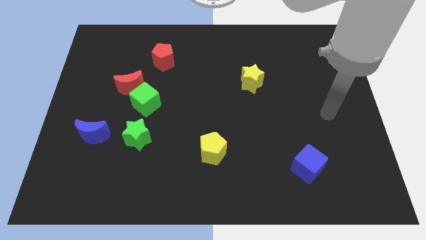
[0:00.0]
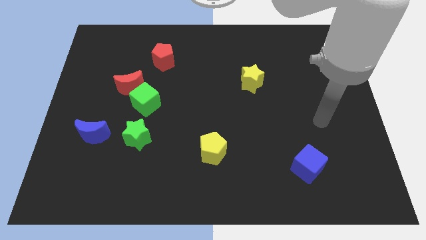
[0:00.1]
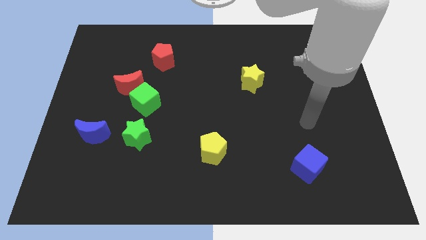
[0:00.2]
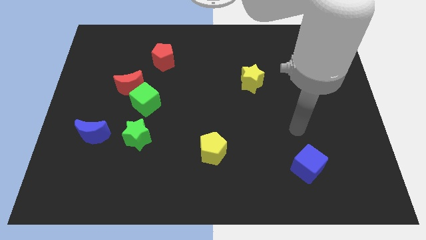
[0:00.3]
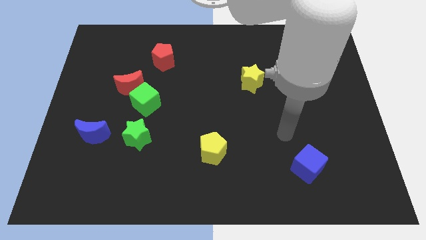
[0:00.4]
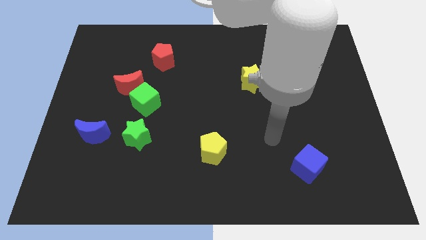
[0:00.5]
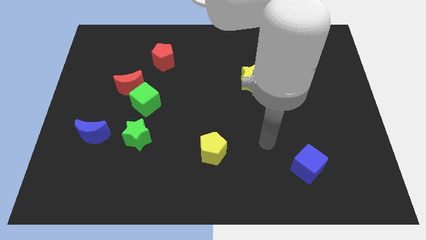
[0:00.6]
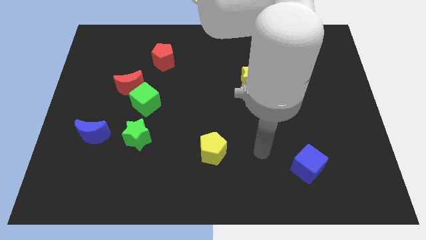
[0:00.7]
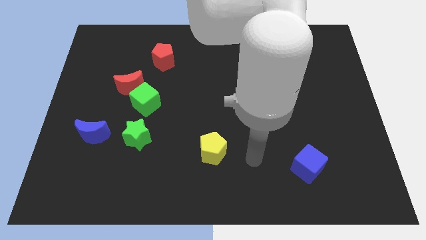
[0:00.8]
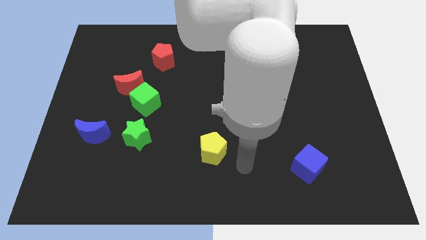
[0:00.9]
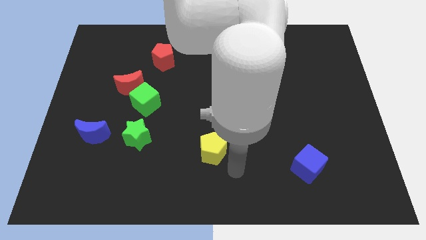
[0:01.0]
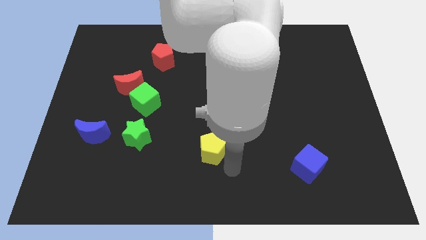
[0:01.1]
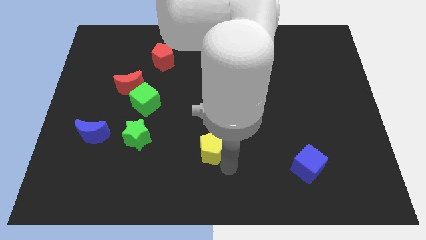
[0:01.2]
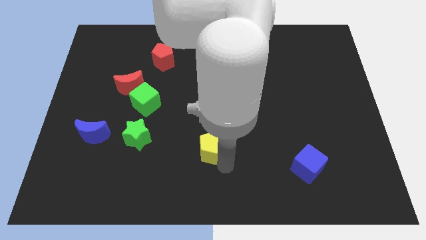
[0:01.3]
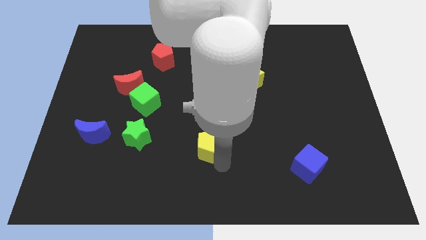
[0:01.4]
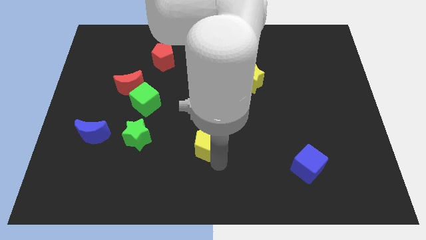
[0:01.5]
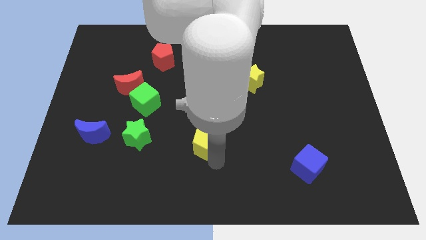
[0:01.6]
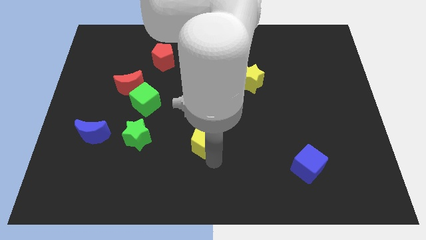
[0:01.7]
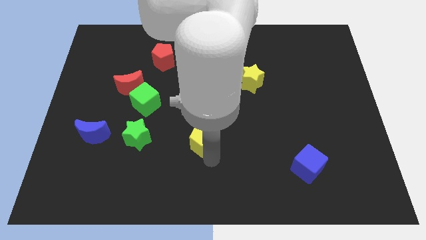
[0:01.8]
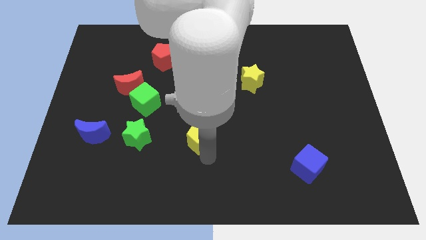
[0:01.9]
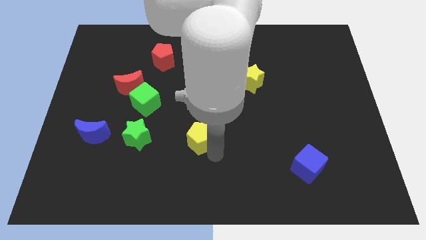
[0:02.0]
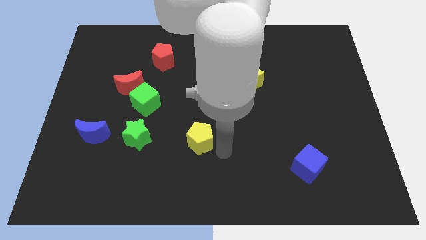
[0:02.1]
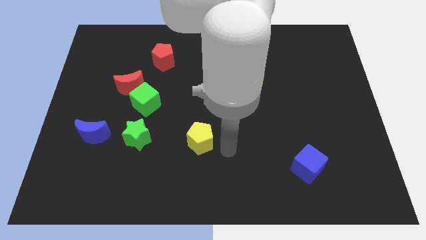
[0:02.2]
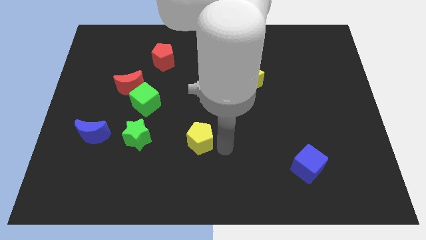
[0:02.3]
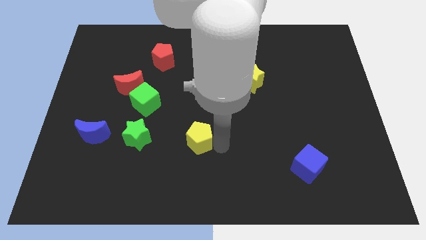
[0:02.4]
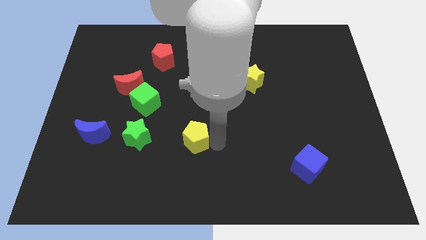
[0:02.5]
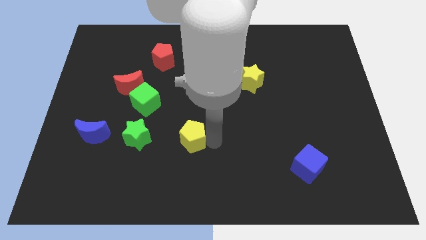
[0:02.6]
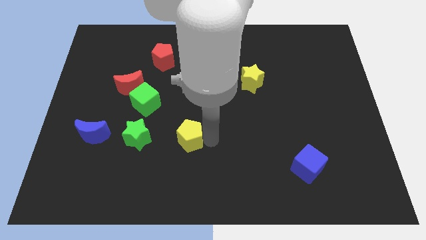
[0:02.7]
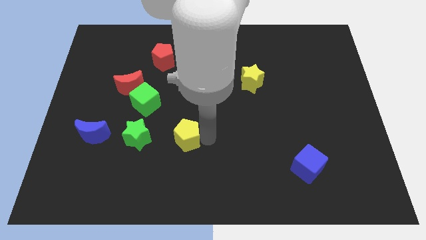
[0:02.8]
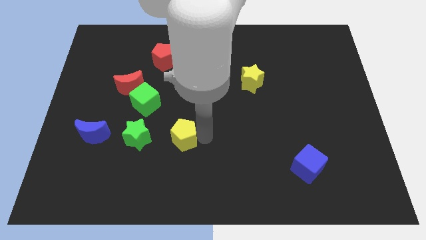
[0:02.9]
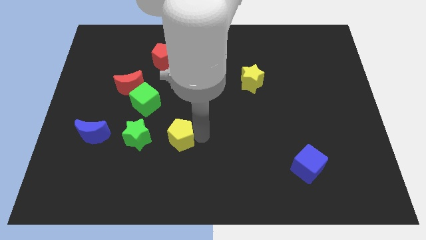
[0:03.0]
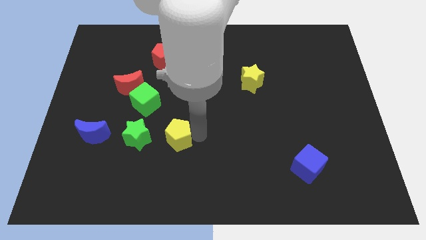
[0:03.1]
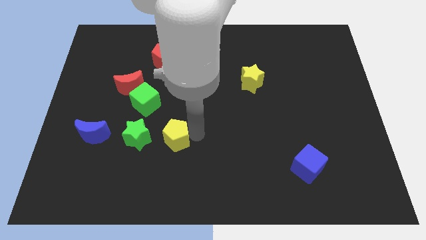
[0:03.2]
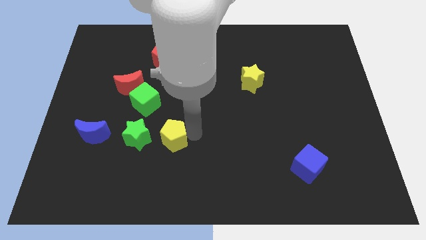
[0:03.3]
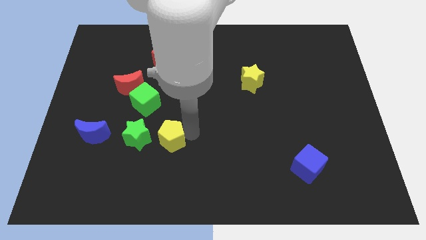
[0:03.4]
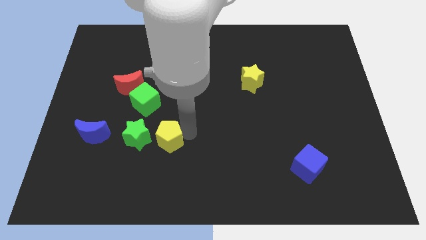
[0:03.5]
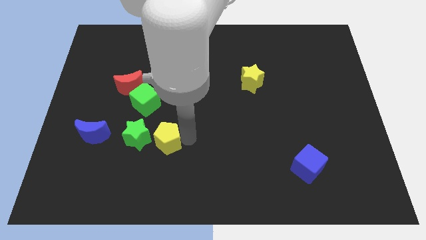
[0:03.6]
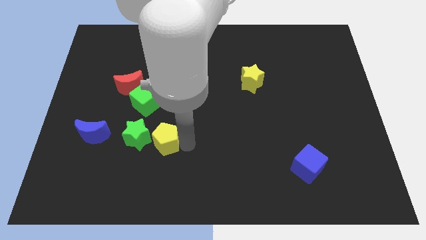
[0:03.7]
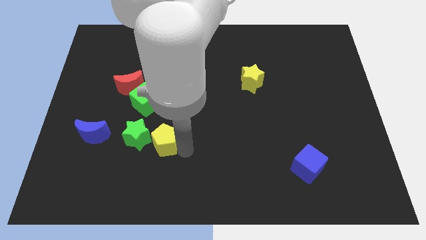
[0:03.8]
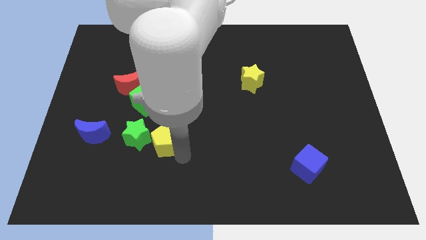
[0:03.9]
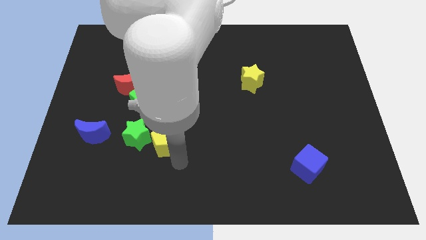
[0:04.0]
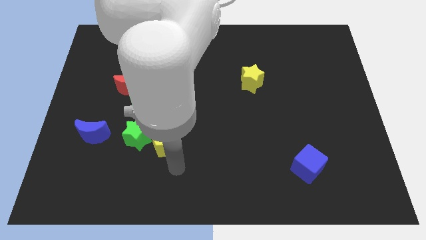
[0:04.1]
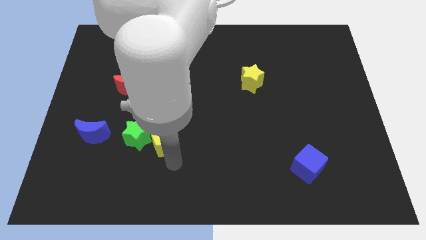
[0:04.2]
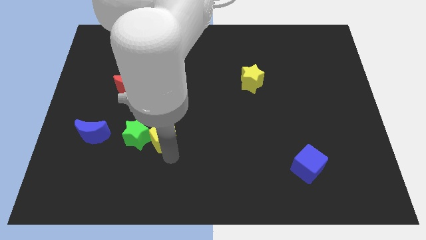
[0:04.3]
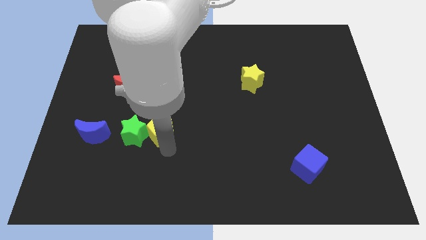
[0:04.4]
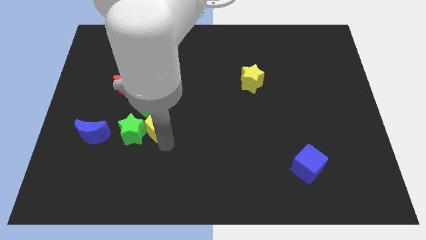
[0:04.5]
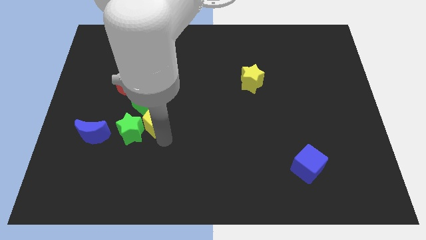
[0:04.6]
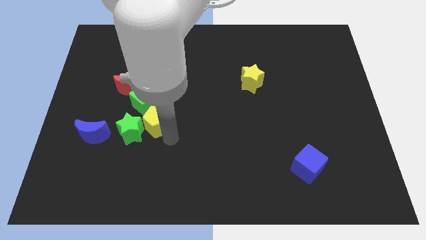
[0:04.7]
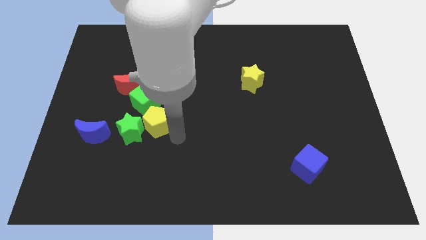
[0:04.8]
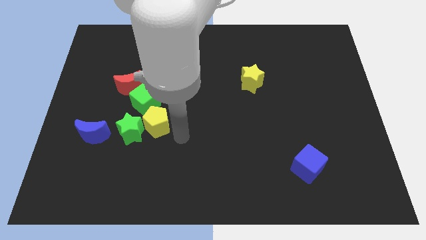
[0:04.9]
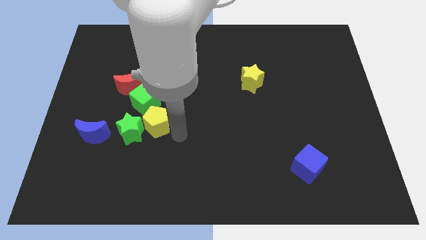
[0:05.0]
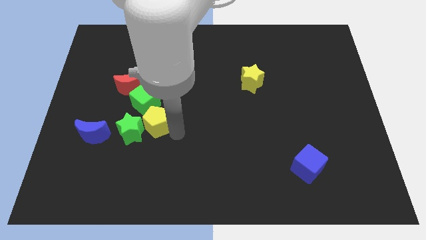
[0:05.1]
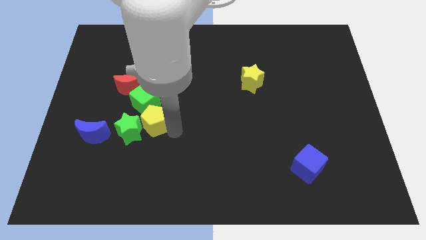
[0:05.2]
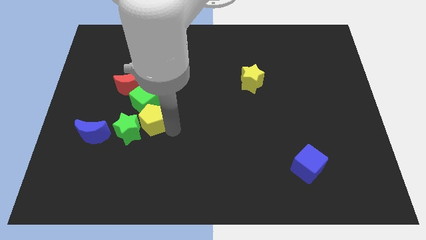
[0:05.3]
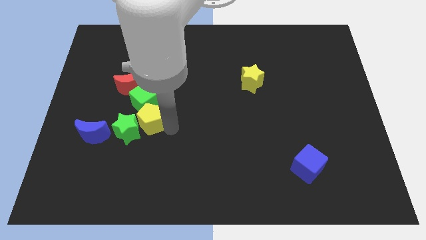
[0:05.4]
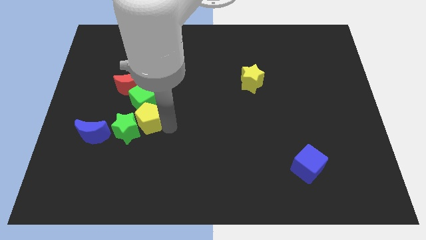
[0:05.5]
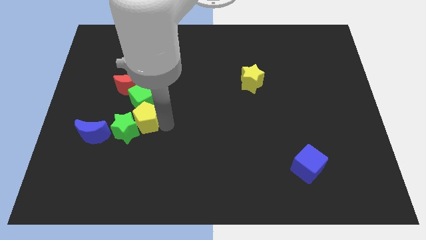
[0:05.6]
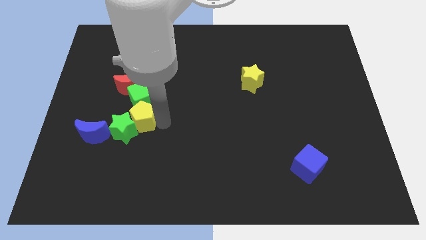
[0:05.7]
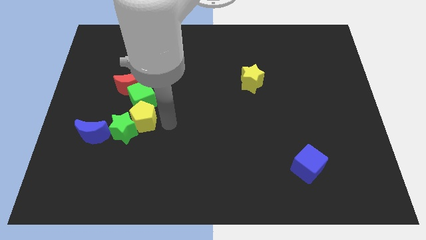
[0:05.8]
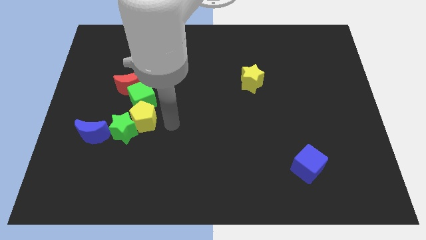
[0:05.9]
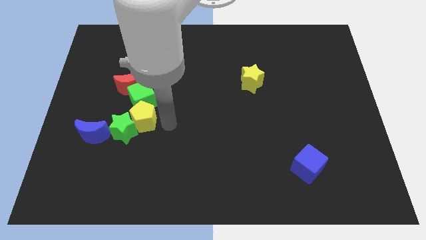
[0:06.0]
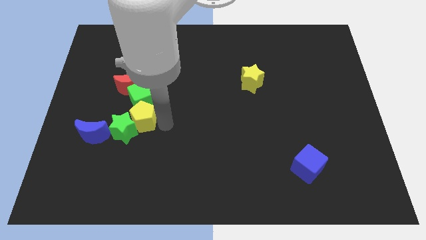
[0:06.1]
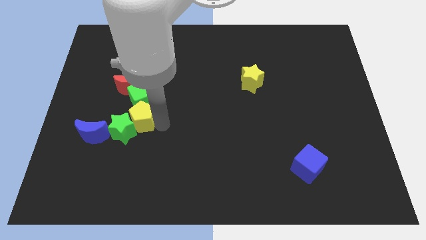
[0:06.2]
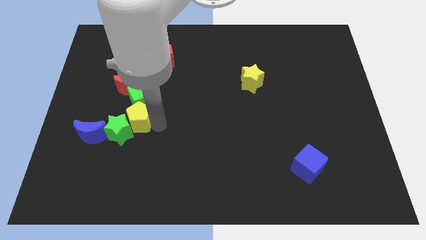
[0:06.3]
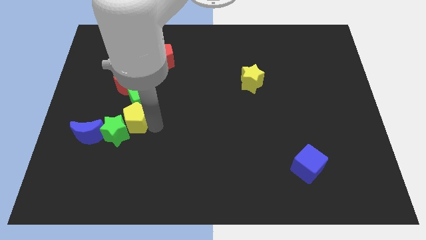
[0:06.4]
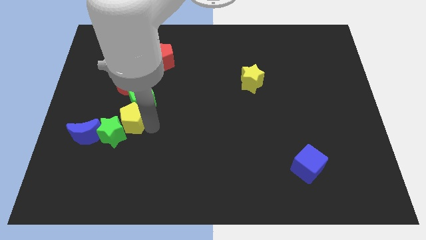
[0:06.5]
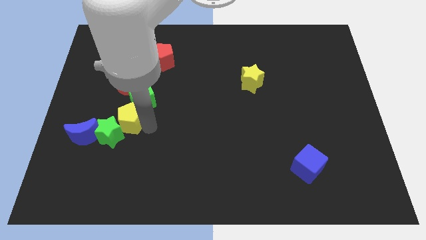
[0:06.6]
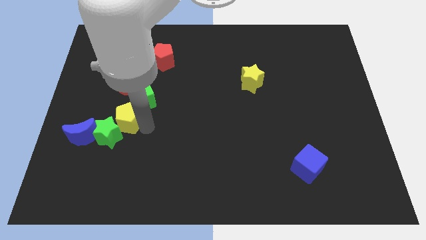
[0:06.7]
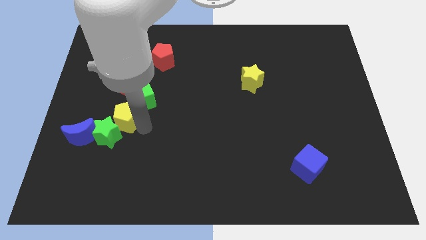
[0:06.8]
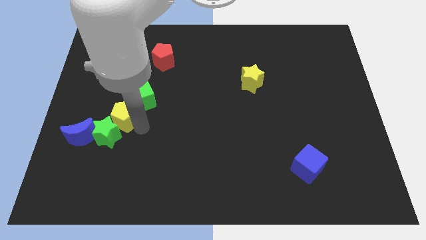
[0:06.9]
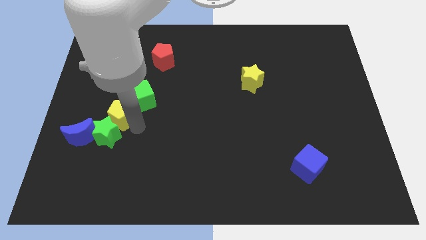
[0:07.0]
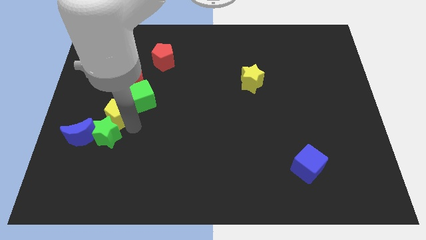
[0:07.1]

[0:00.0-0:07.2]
push the yellow pentagon just left of the green cube

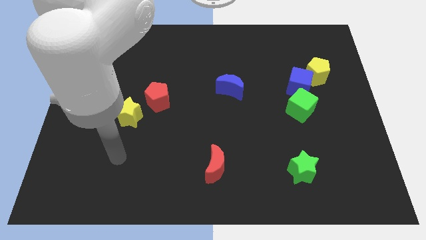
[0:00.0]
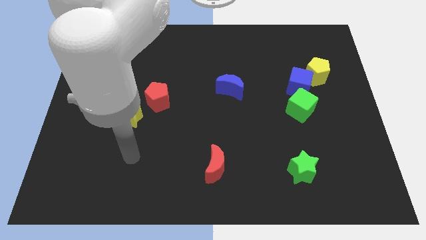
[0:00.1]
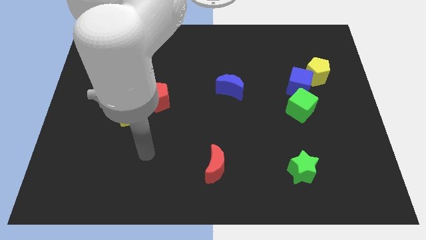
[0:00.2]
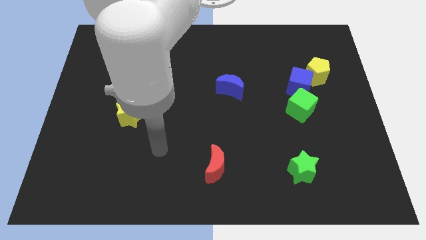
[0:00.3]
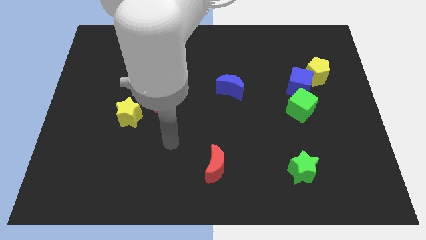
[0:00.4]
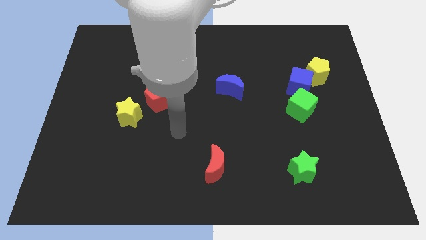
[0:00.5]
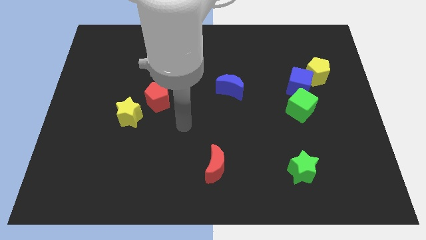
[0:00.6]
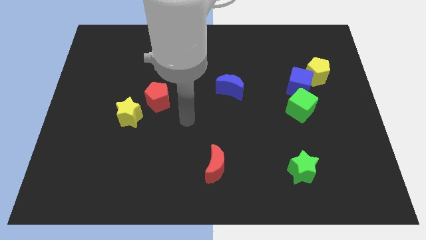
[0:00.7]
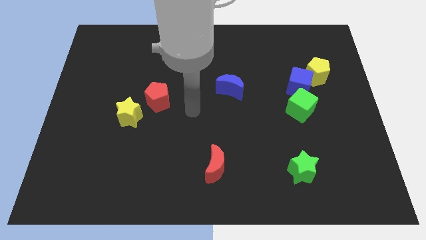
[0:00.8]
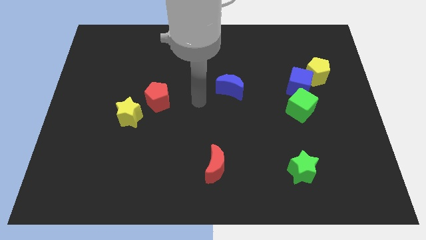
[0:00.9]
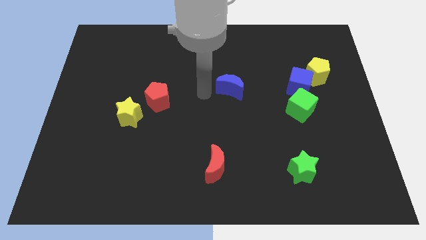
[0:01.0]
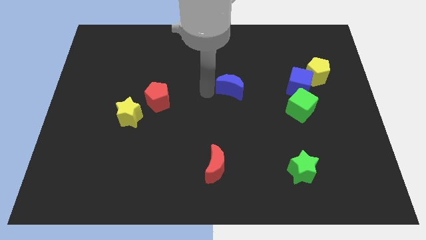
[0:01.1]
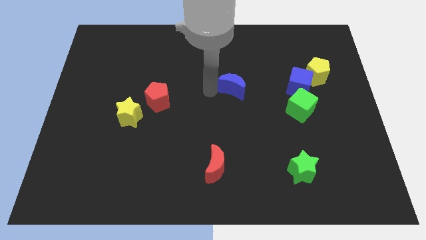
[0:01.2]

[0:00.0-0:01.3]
slide the blue moon to the left side of the blue cube
